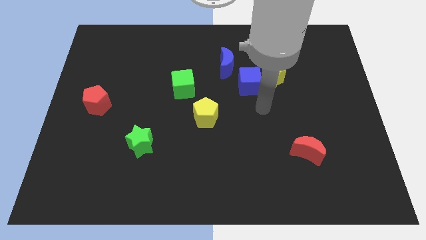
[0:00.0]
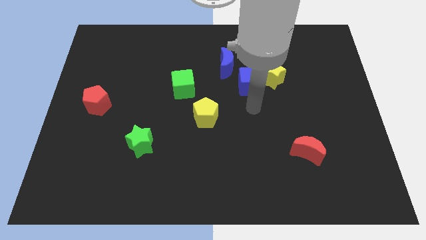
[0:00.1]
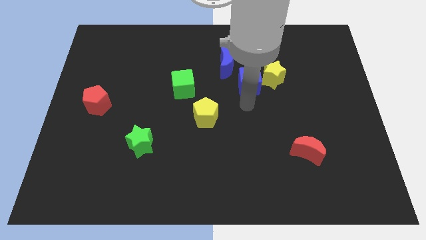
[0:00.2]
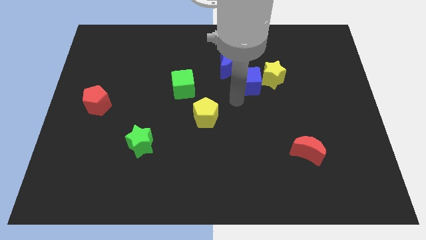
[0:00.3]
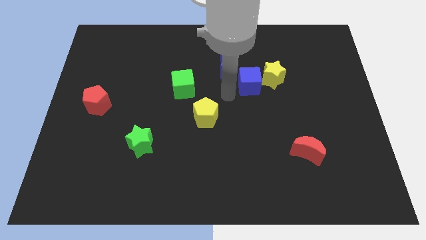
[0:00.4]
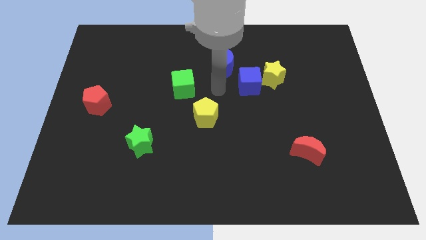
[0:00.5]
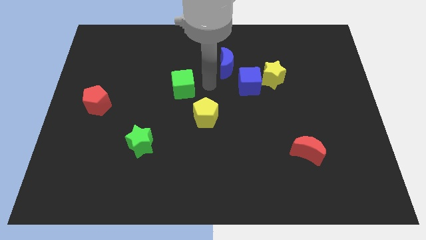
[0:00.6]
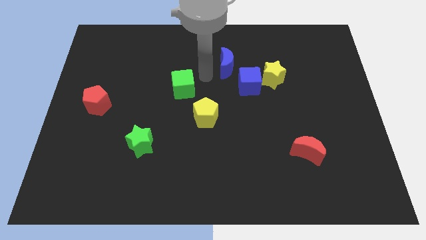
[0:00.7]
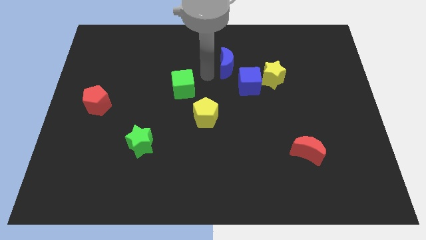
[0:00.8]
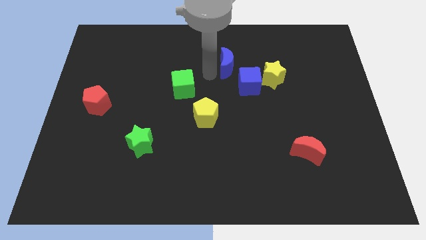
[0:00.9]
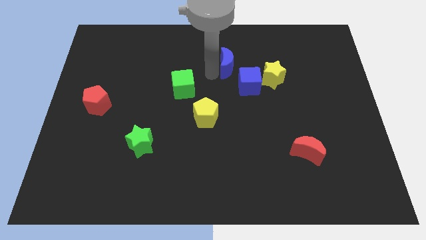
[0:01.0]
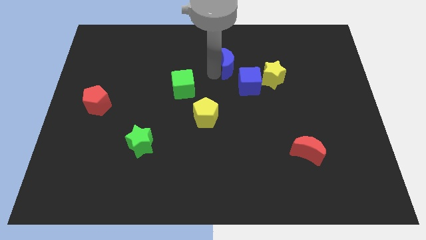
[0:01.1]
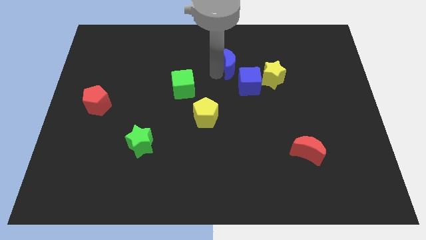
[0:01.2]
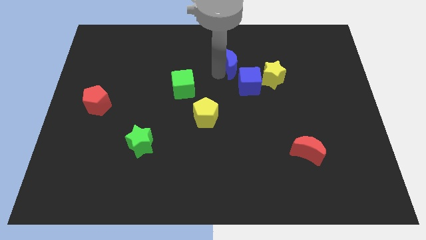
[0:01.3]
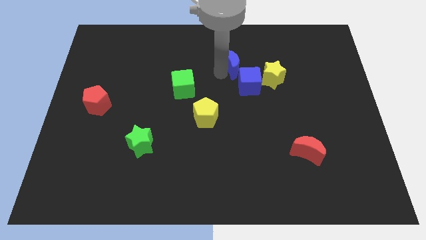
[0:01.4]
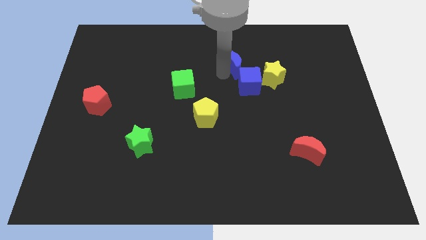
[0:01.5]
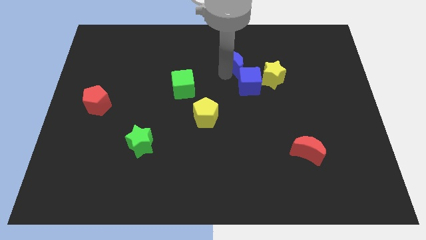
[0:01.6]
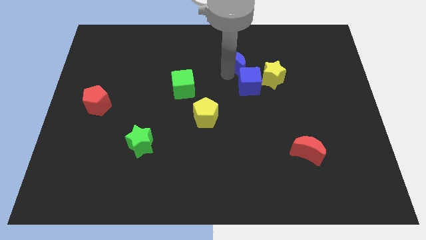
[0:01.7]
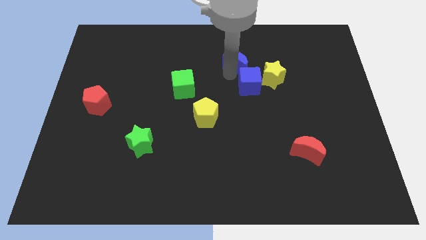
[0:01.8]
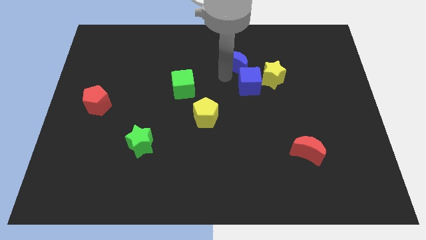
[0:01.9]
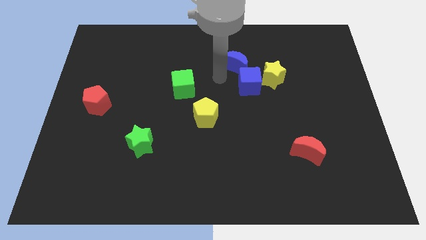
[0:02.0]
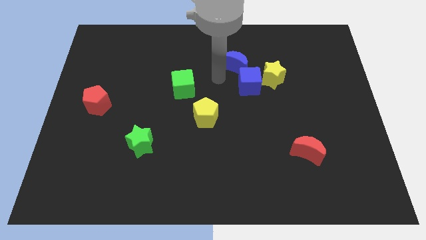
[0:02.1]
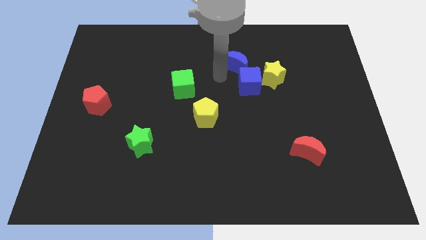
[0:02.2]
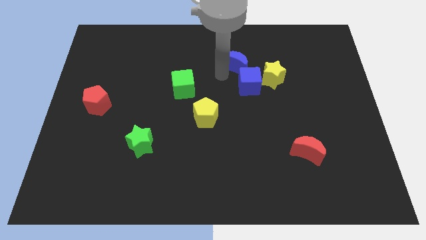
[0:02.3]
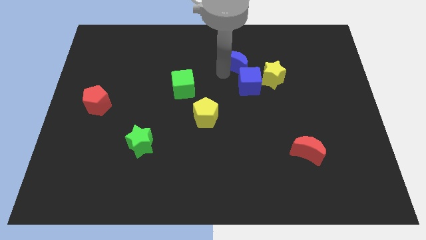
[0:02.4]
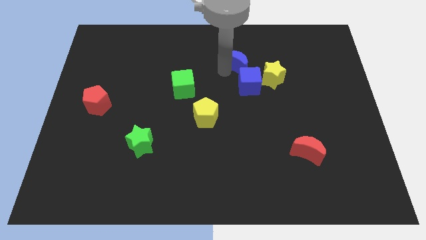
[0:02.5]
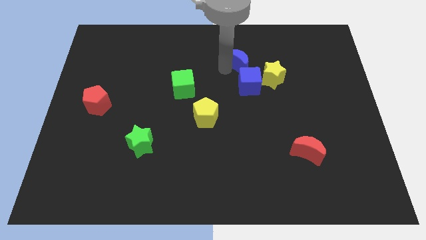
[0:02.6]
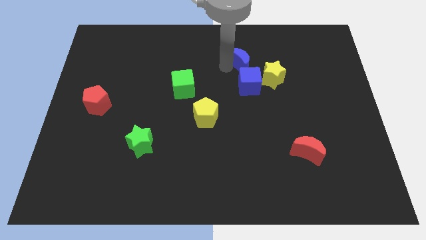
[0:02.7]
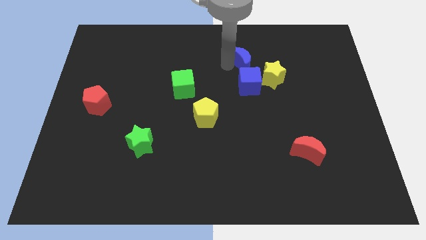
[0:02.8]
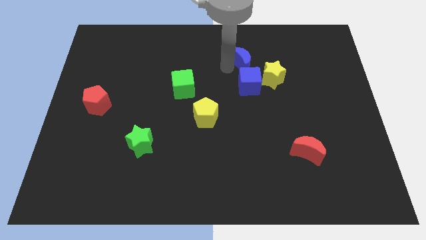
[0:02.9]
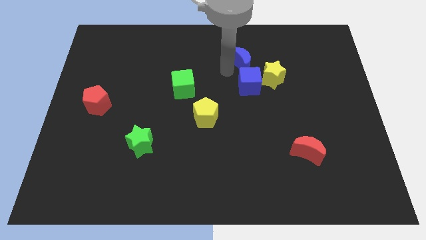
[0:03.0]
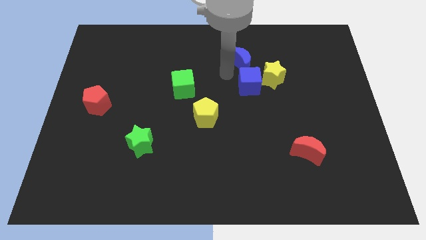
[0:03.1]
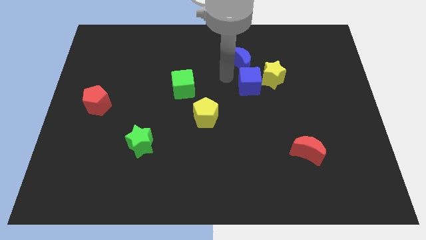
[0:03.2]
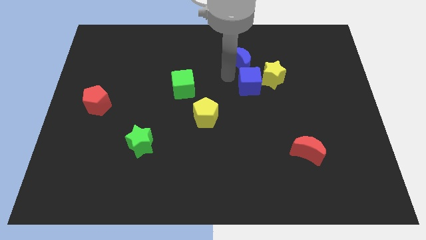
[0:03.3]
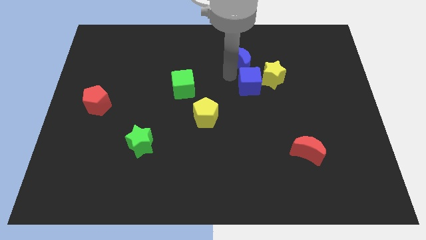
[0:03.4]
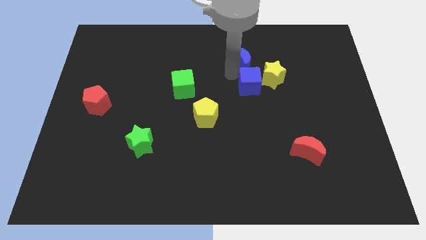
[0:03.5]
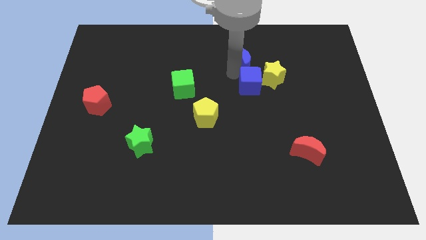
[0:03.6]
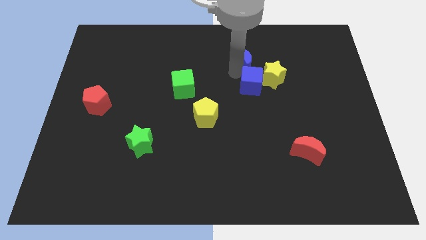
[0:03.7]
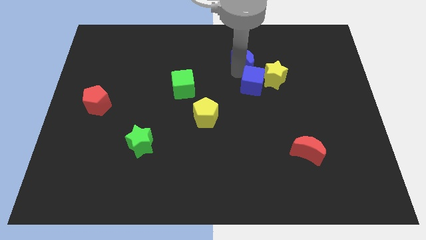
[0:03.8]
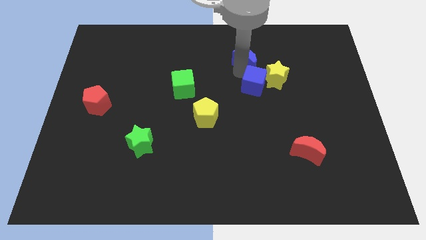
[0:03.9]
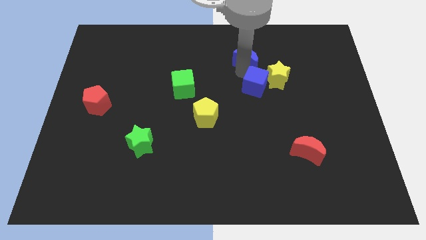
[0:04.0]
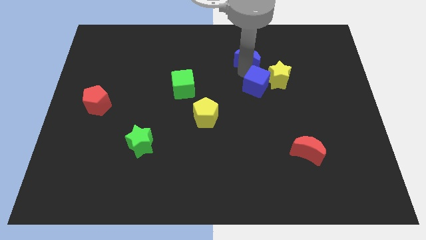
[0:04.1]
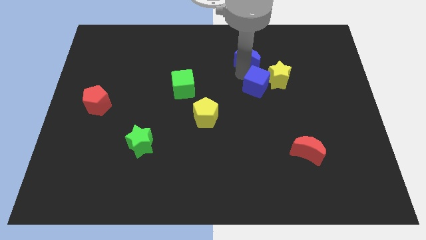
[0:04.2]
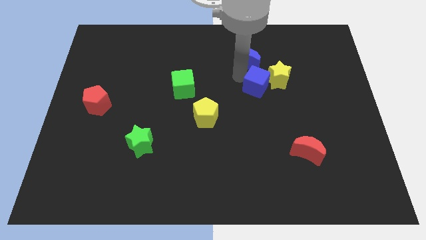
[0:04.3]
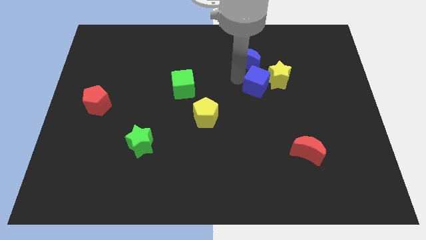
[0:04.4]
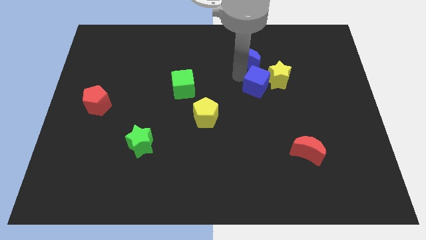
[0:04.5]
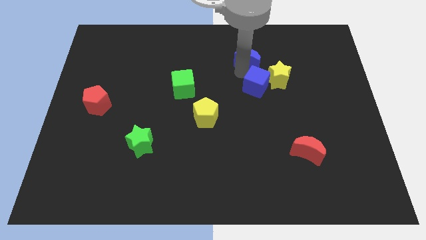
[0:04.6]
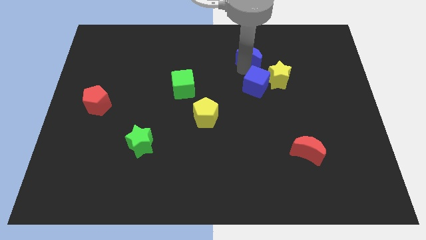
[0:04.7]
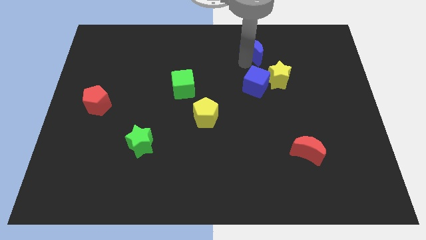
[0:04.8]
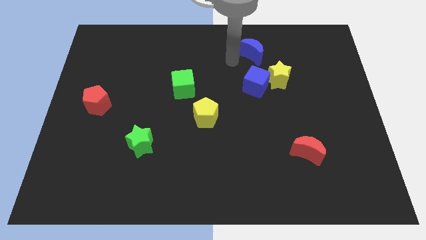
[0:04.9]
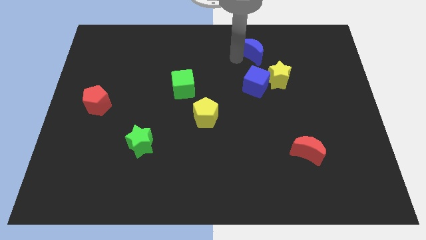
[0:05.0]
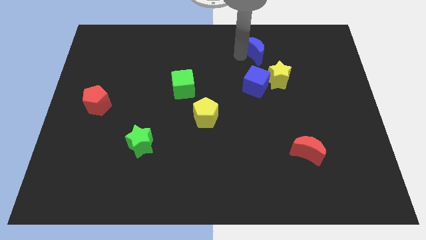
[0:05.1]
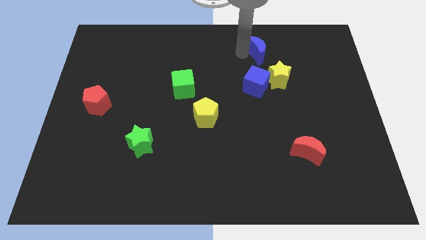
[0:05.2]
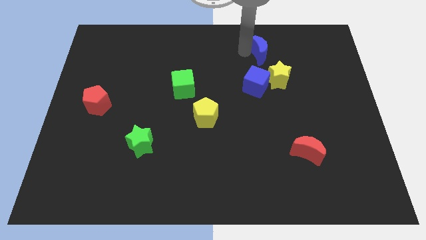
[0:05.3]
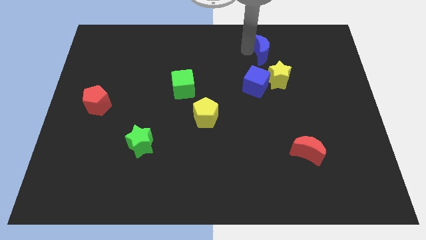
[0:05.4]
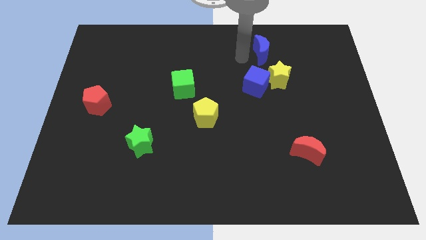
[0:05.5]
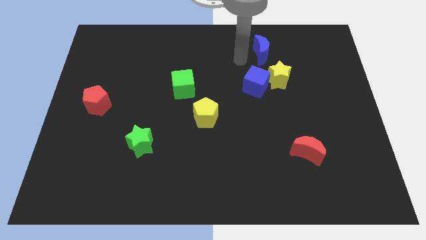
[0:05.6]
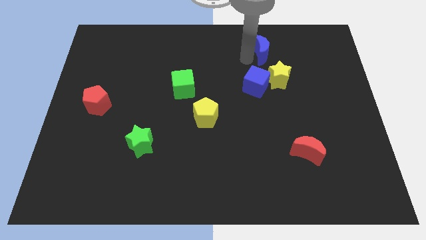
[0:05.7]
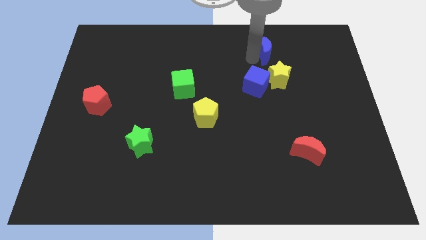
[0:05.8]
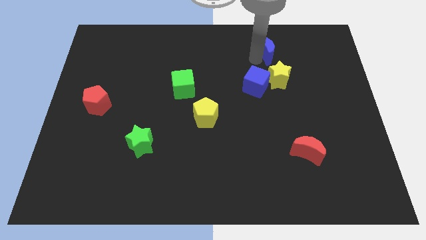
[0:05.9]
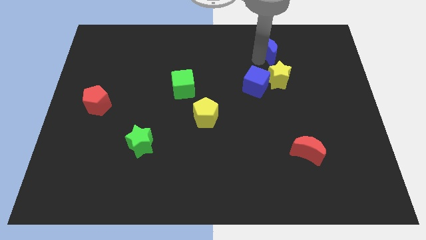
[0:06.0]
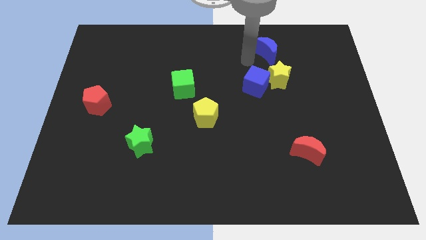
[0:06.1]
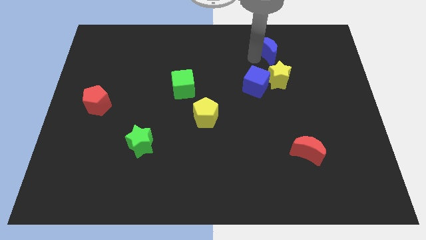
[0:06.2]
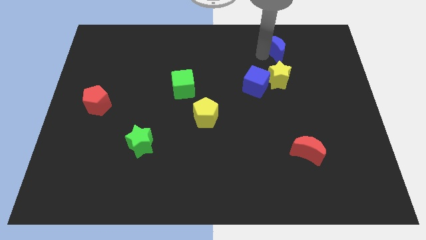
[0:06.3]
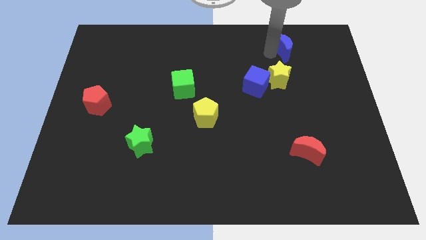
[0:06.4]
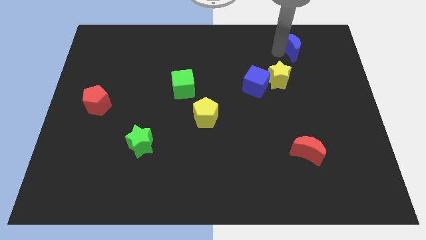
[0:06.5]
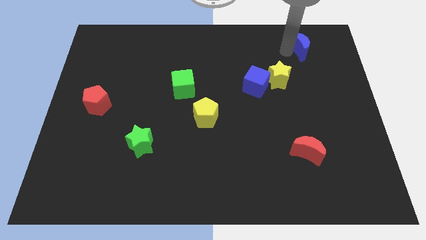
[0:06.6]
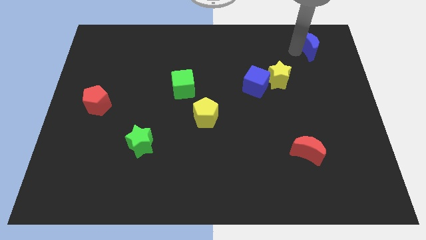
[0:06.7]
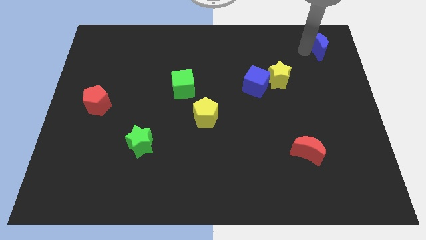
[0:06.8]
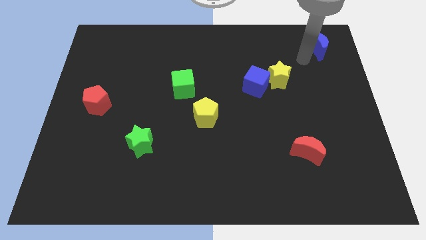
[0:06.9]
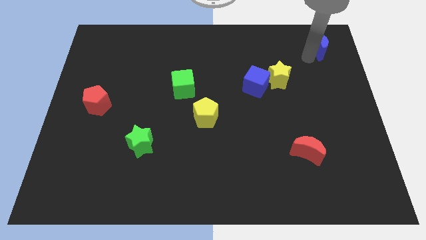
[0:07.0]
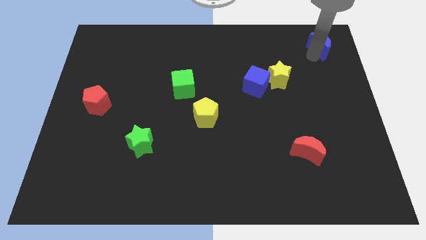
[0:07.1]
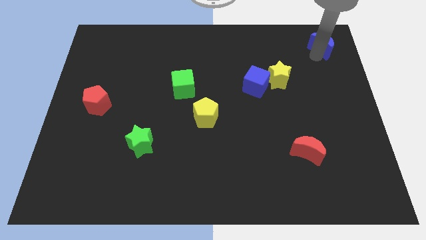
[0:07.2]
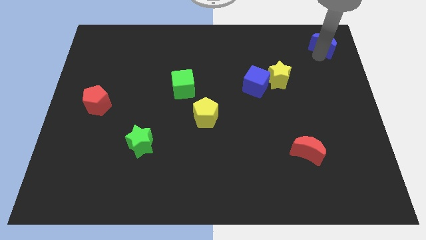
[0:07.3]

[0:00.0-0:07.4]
move the blue moon to the top right

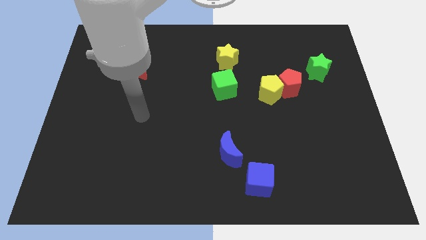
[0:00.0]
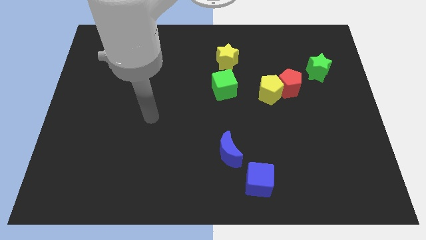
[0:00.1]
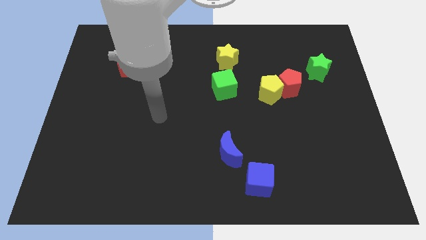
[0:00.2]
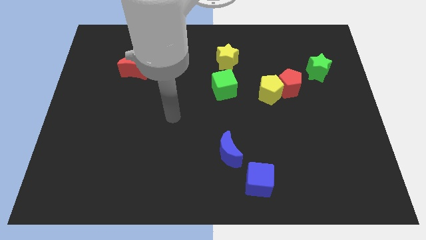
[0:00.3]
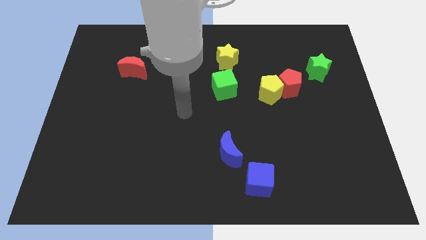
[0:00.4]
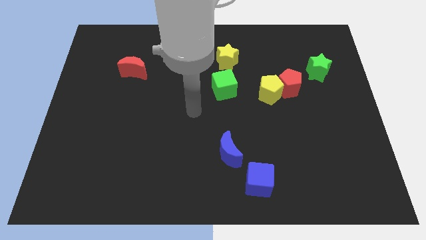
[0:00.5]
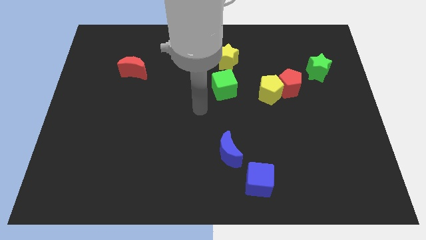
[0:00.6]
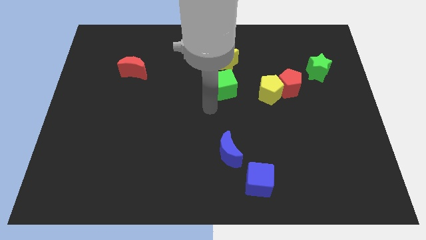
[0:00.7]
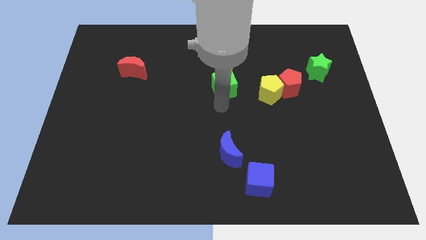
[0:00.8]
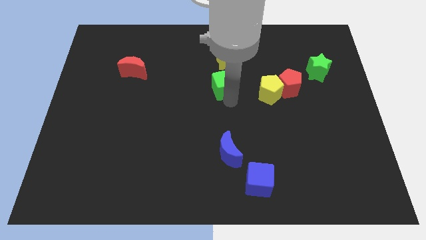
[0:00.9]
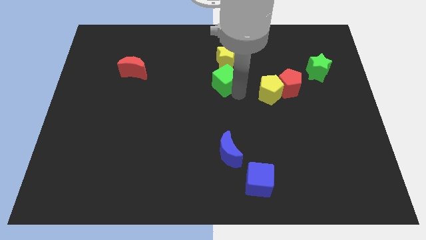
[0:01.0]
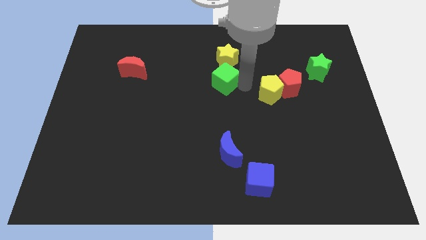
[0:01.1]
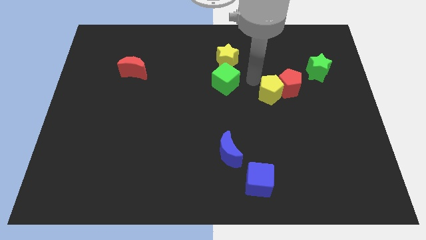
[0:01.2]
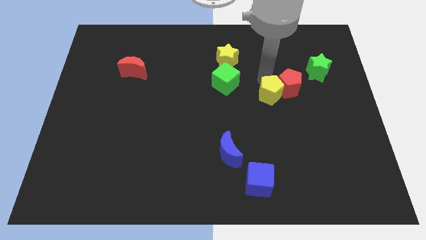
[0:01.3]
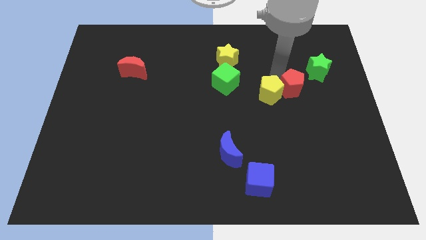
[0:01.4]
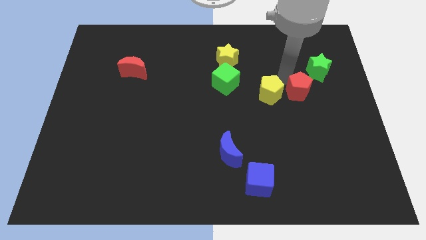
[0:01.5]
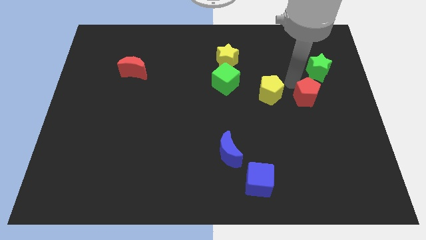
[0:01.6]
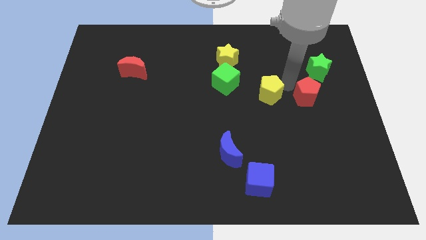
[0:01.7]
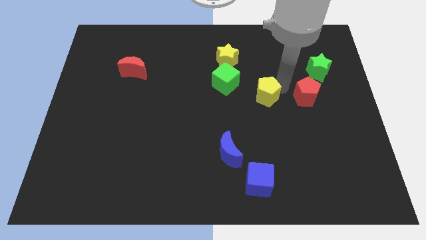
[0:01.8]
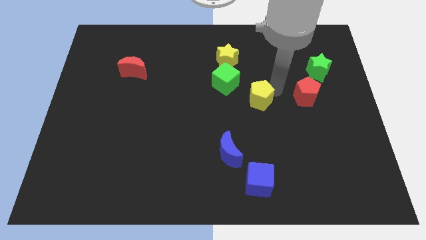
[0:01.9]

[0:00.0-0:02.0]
put the yellow pentagon to the middle
